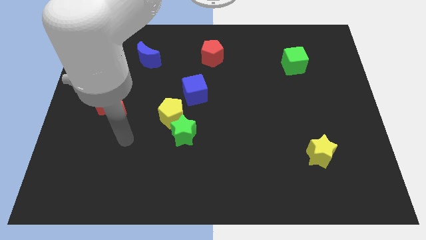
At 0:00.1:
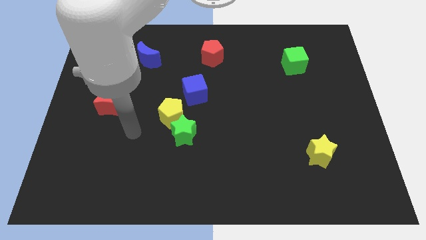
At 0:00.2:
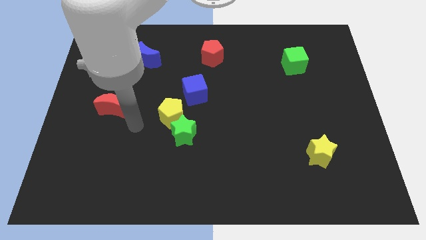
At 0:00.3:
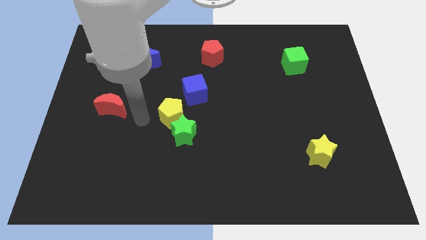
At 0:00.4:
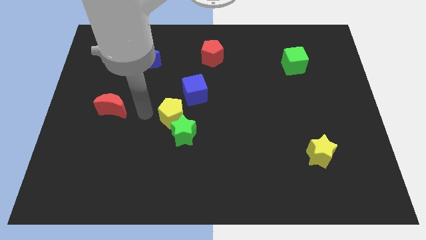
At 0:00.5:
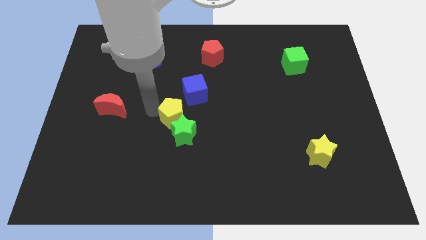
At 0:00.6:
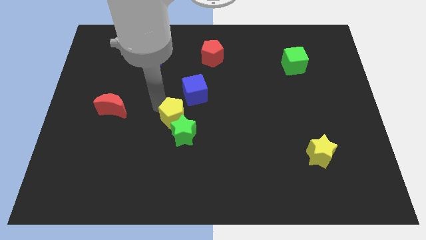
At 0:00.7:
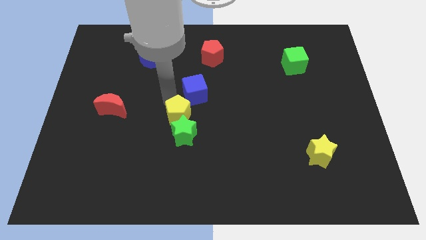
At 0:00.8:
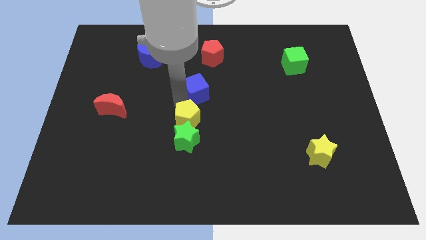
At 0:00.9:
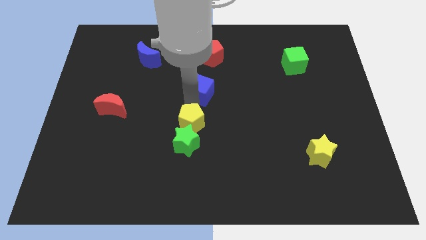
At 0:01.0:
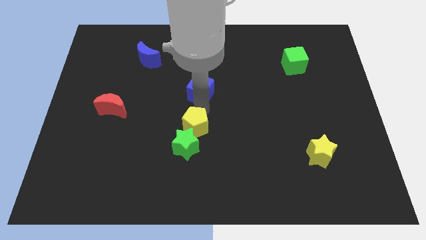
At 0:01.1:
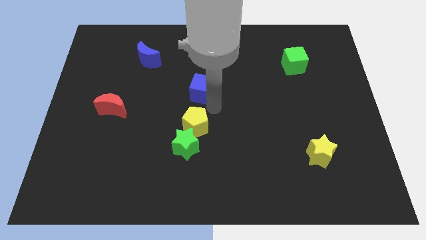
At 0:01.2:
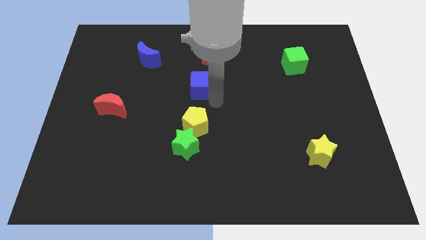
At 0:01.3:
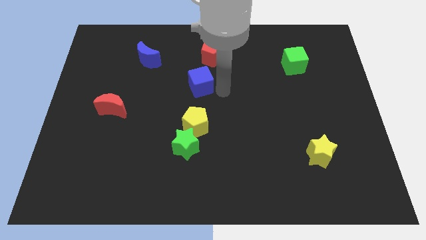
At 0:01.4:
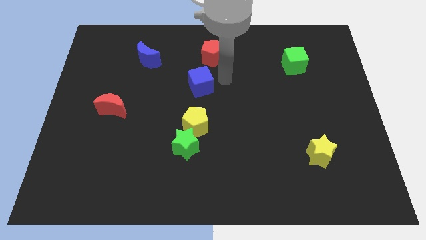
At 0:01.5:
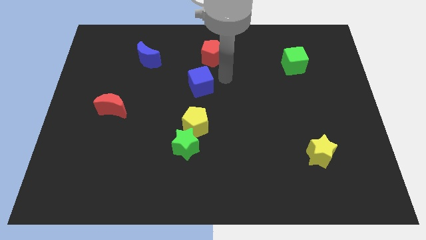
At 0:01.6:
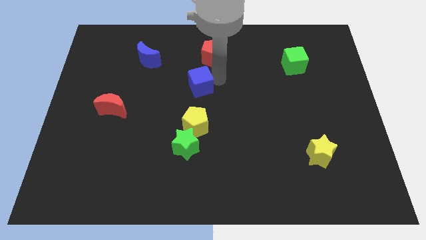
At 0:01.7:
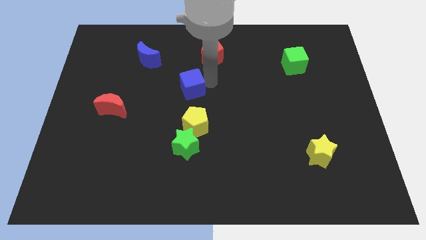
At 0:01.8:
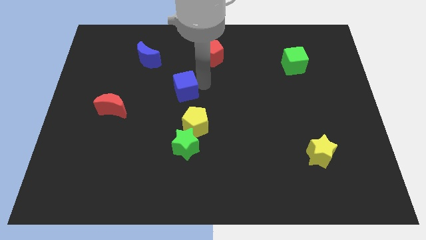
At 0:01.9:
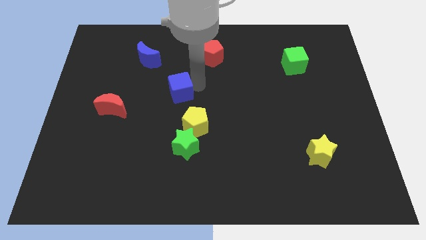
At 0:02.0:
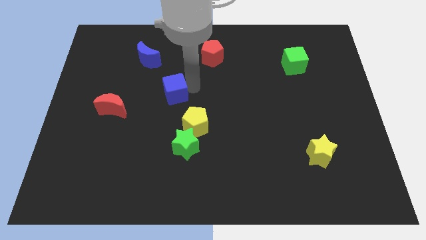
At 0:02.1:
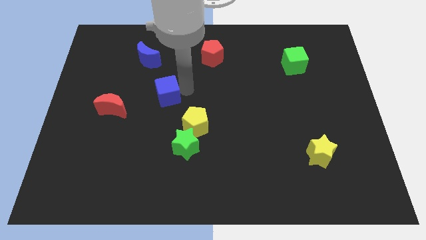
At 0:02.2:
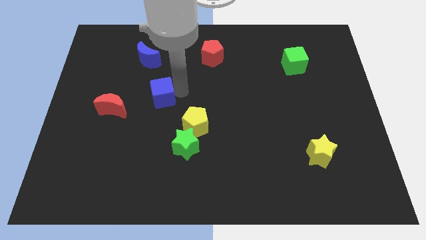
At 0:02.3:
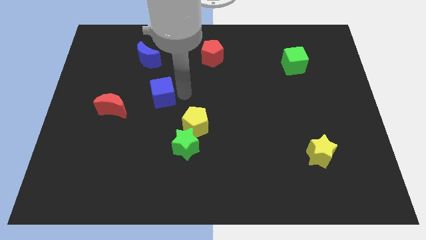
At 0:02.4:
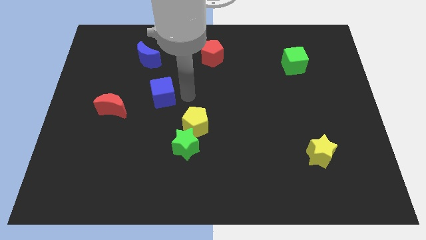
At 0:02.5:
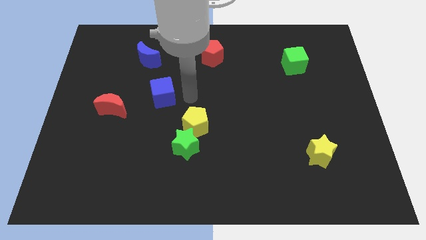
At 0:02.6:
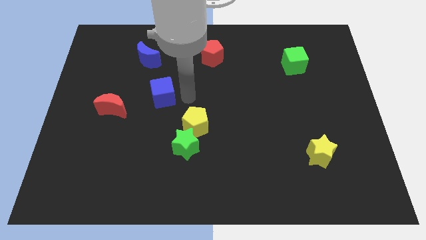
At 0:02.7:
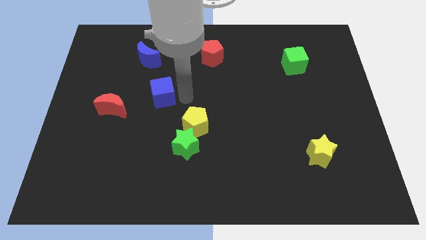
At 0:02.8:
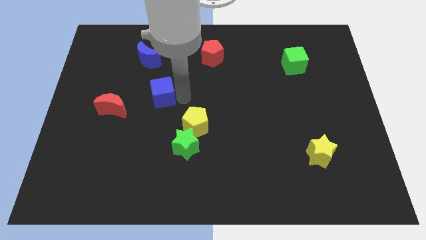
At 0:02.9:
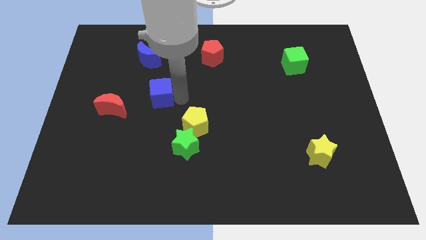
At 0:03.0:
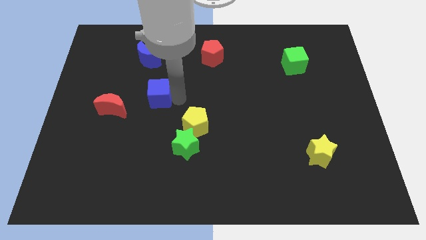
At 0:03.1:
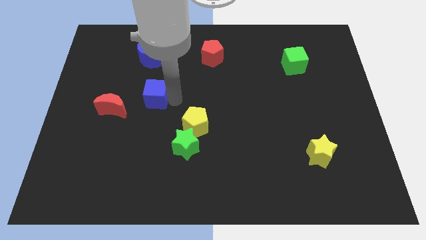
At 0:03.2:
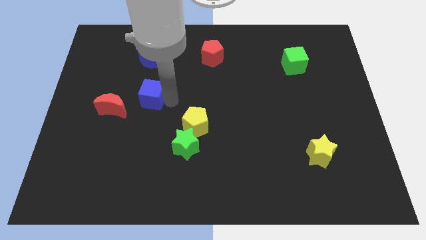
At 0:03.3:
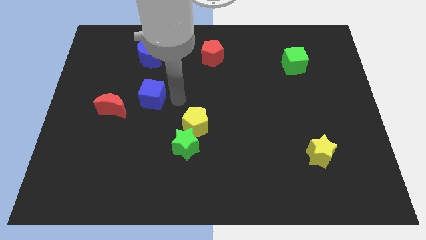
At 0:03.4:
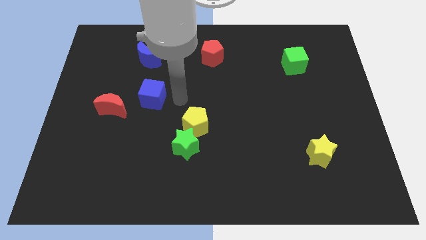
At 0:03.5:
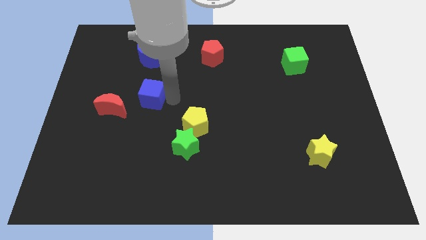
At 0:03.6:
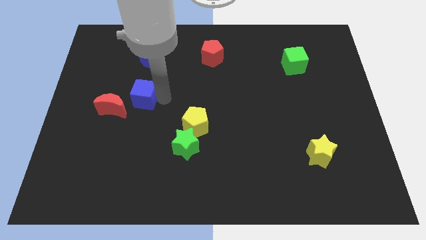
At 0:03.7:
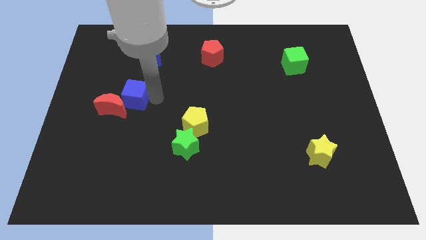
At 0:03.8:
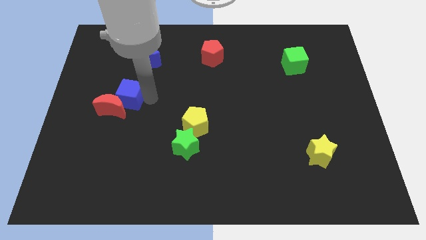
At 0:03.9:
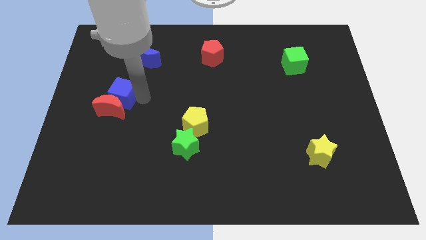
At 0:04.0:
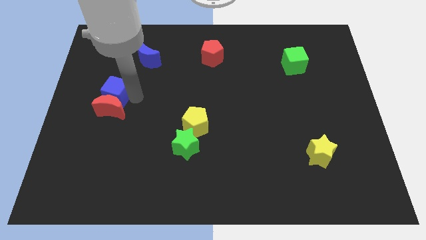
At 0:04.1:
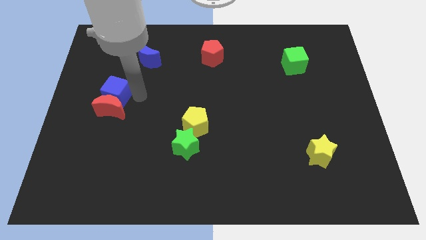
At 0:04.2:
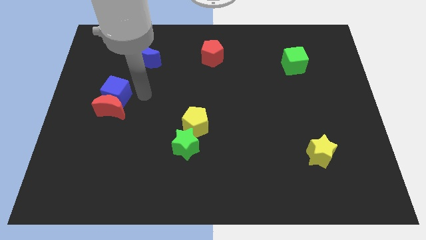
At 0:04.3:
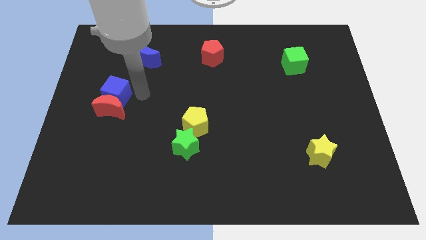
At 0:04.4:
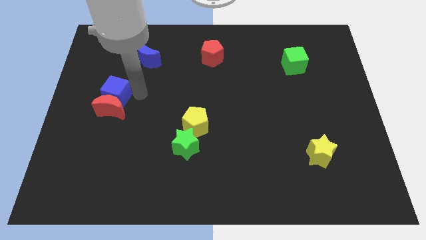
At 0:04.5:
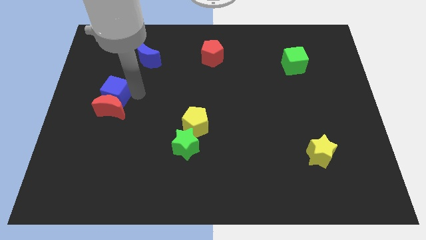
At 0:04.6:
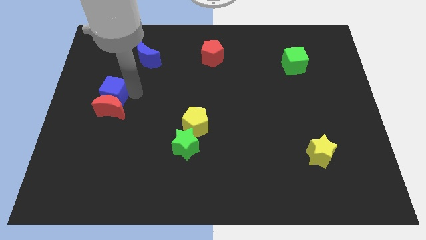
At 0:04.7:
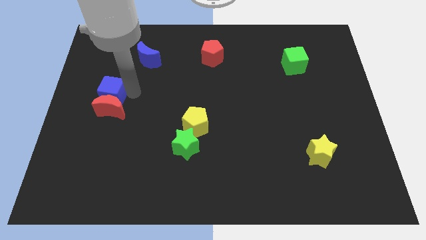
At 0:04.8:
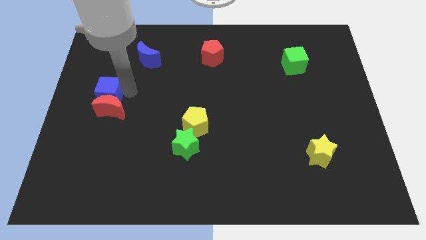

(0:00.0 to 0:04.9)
put the blue cube to the left side

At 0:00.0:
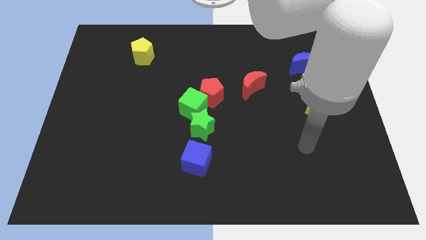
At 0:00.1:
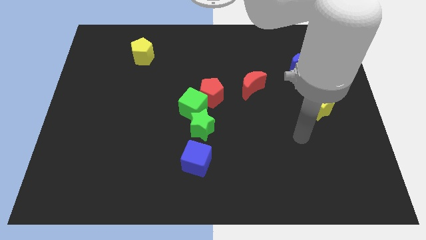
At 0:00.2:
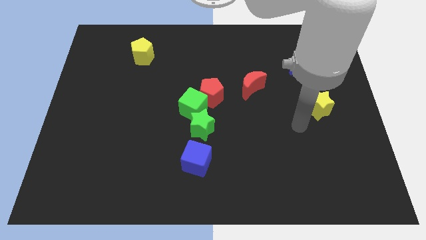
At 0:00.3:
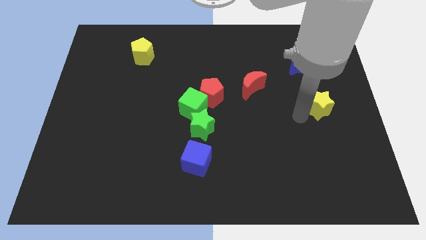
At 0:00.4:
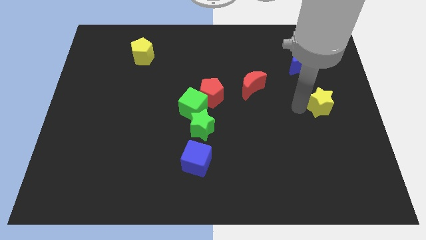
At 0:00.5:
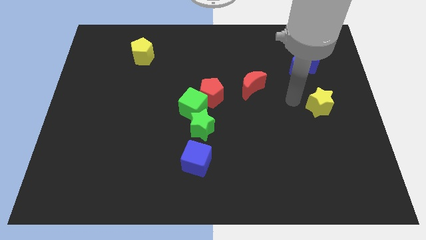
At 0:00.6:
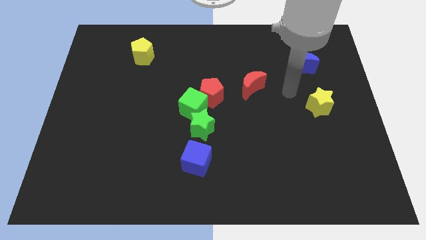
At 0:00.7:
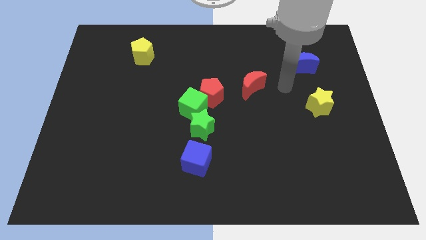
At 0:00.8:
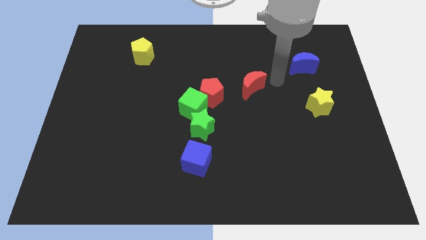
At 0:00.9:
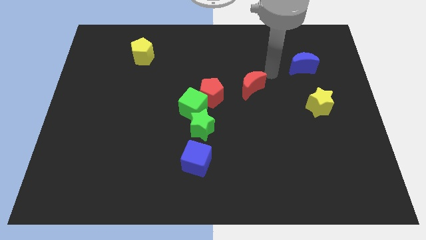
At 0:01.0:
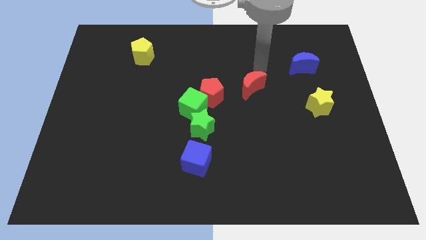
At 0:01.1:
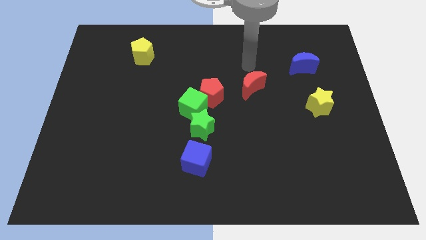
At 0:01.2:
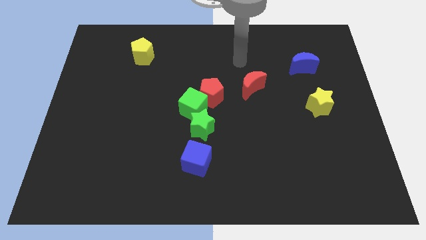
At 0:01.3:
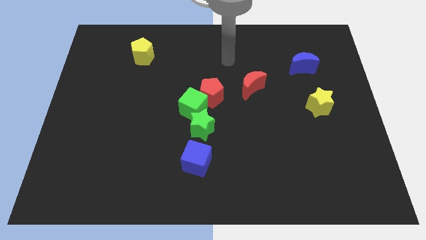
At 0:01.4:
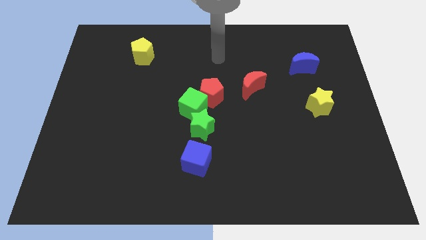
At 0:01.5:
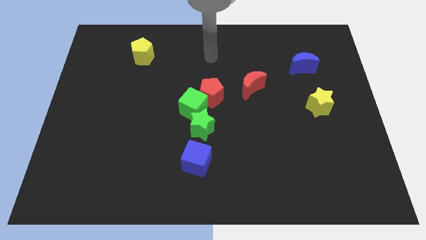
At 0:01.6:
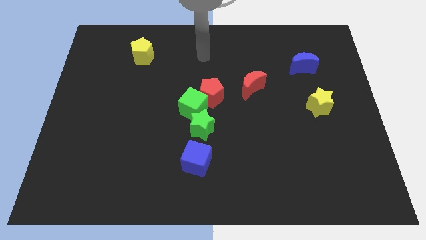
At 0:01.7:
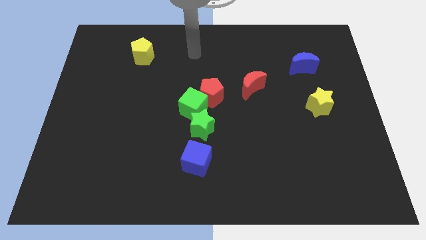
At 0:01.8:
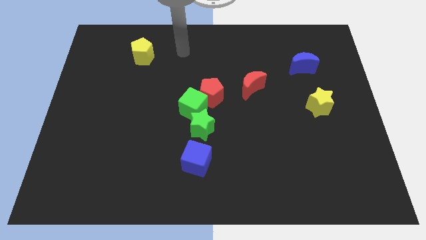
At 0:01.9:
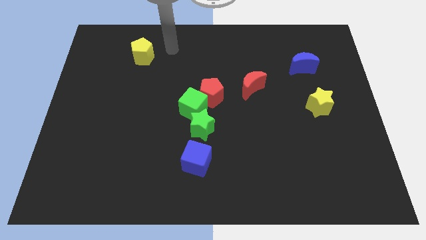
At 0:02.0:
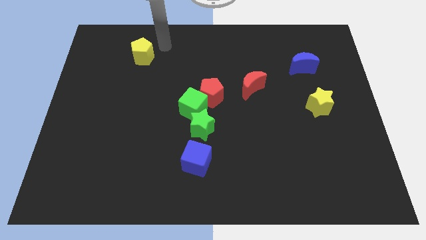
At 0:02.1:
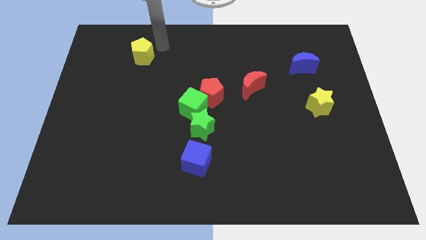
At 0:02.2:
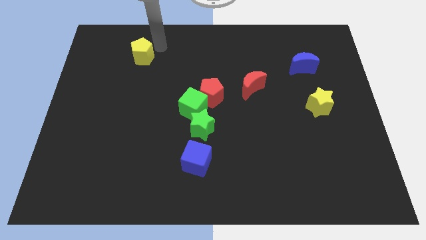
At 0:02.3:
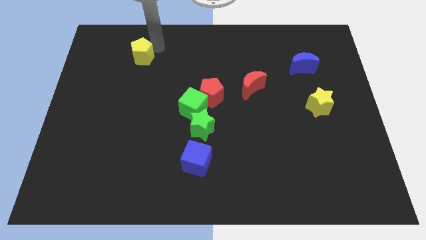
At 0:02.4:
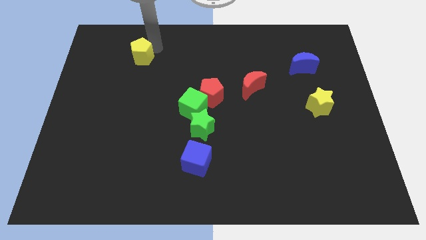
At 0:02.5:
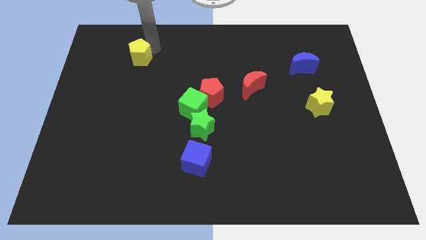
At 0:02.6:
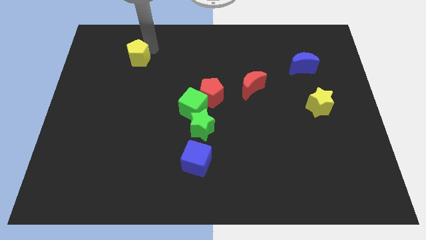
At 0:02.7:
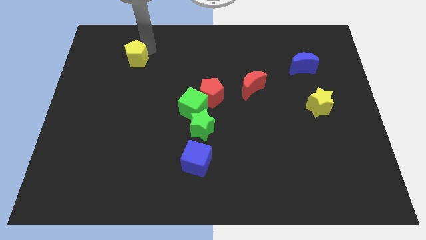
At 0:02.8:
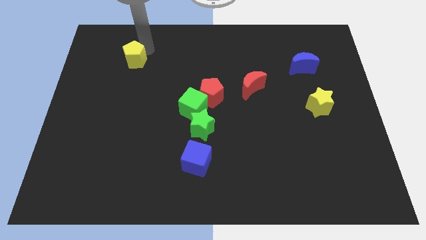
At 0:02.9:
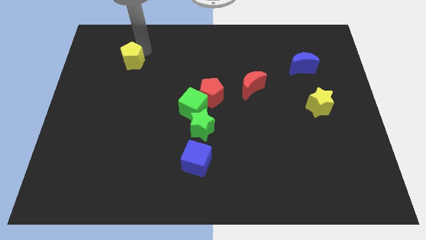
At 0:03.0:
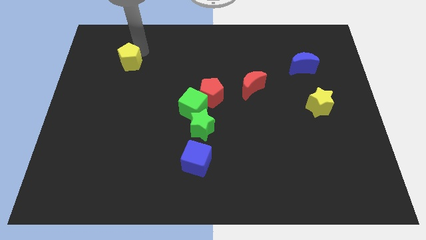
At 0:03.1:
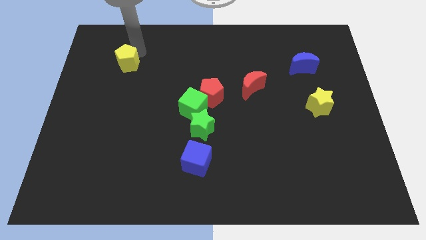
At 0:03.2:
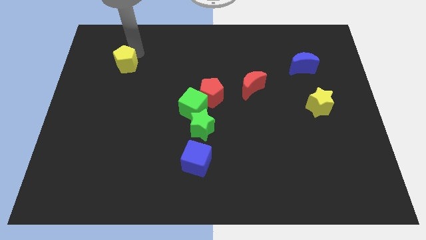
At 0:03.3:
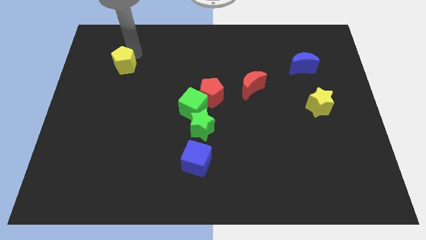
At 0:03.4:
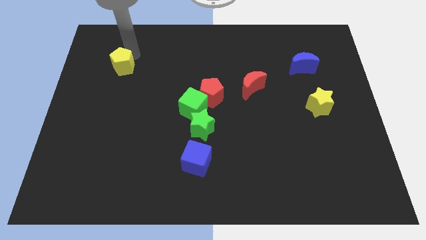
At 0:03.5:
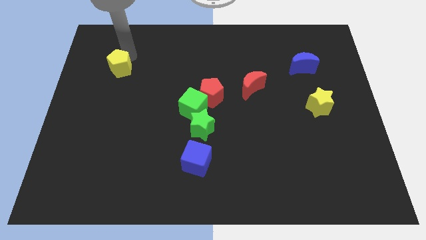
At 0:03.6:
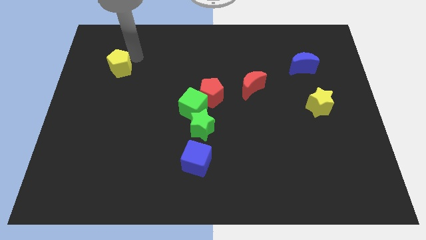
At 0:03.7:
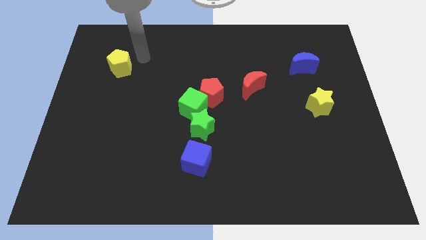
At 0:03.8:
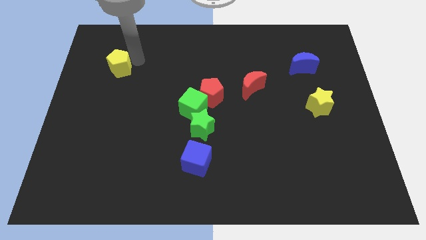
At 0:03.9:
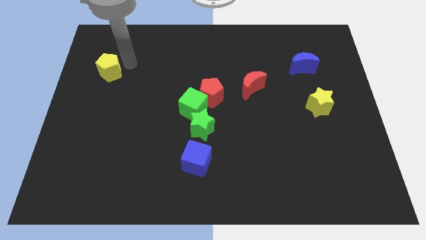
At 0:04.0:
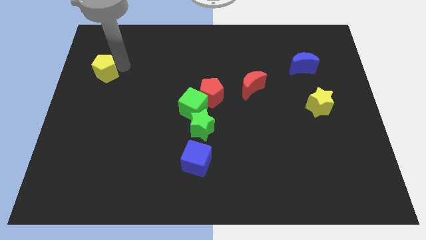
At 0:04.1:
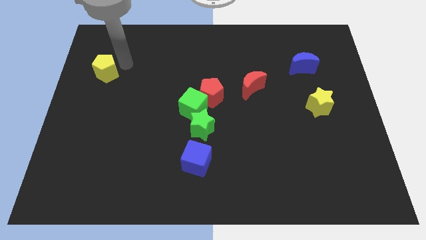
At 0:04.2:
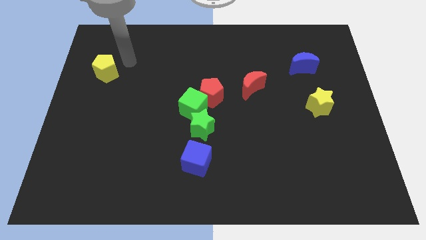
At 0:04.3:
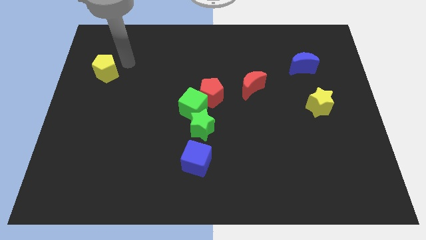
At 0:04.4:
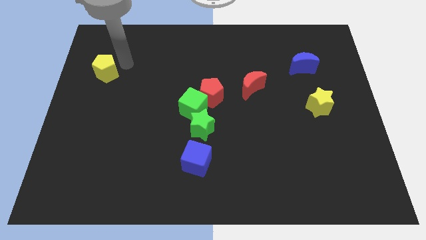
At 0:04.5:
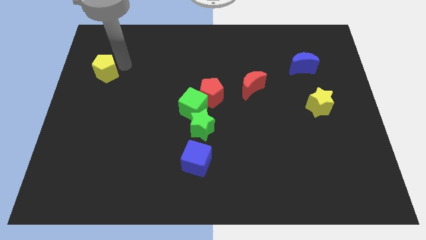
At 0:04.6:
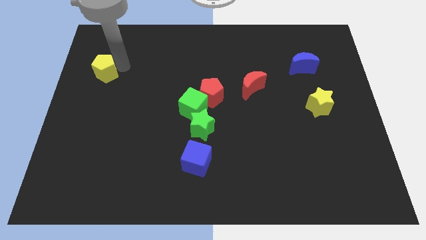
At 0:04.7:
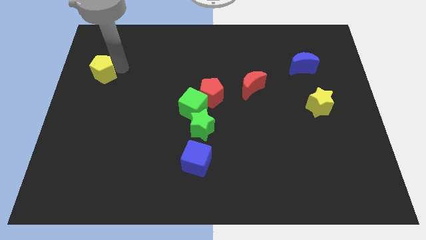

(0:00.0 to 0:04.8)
push the yellow pentagon to the left side of the board
